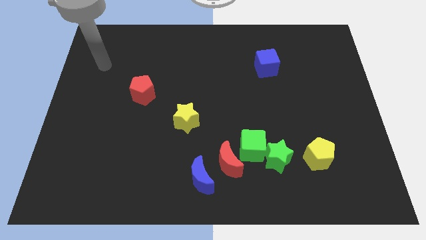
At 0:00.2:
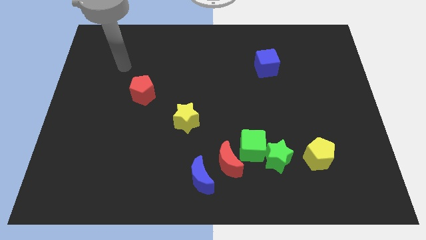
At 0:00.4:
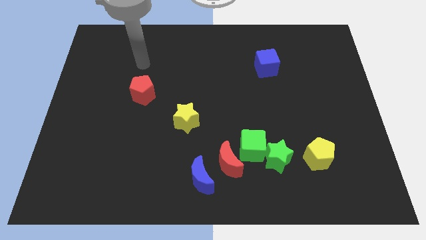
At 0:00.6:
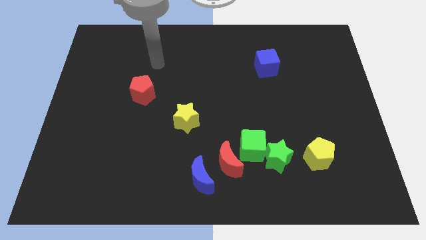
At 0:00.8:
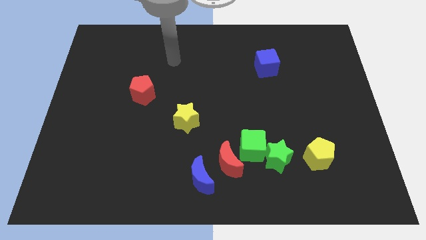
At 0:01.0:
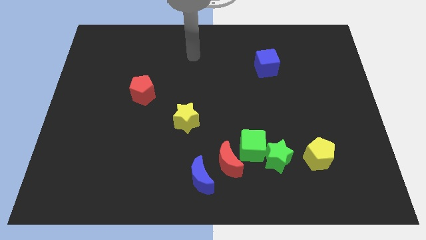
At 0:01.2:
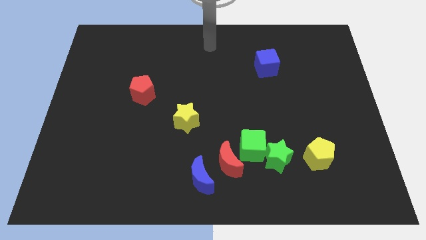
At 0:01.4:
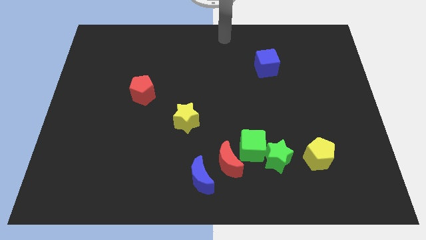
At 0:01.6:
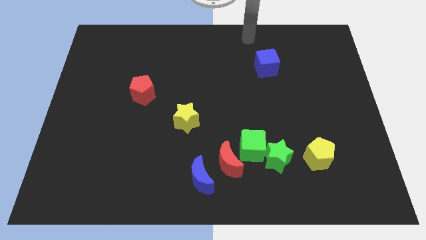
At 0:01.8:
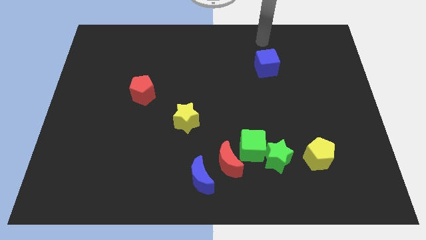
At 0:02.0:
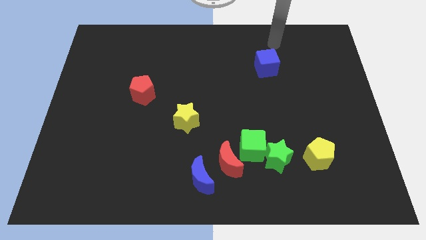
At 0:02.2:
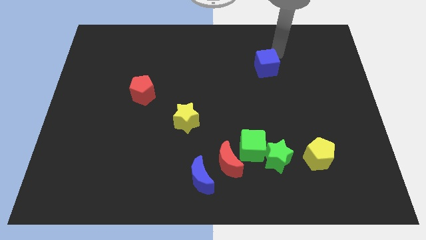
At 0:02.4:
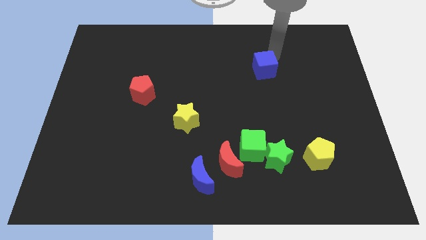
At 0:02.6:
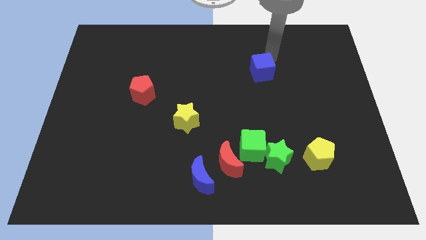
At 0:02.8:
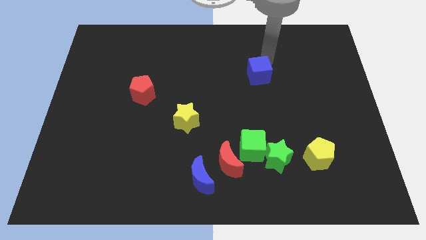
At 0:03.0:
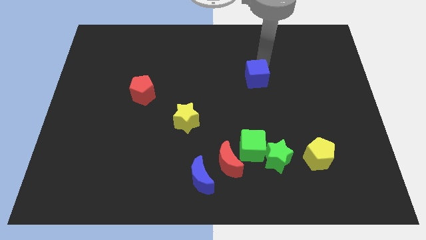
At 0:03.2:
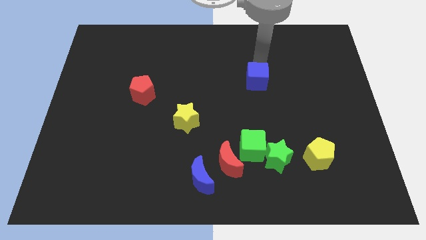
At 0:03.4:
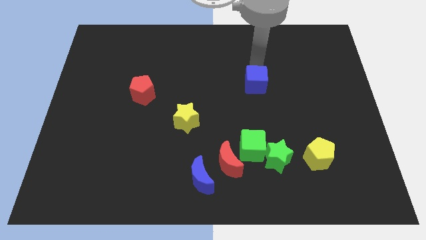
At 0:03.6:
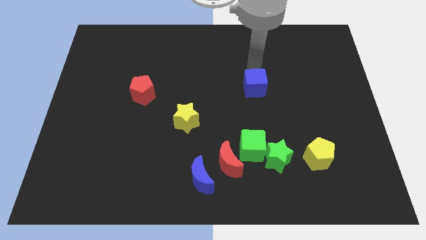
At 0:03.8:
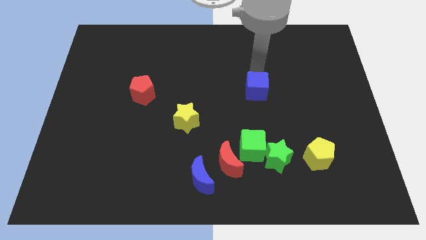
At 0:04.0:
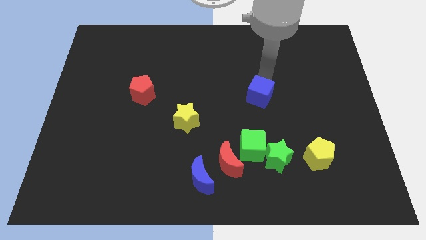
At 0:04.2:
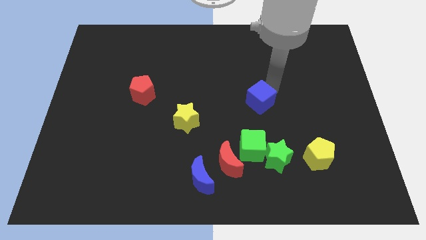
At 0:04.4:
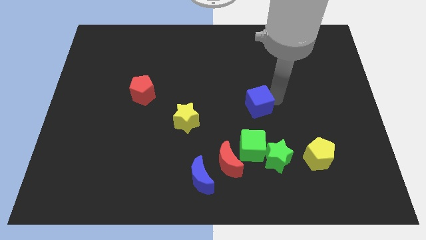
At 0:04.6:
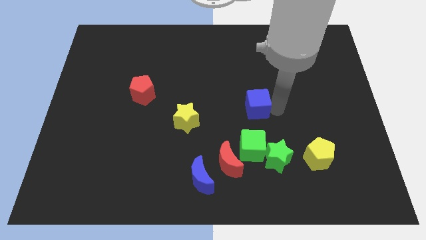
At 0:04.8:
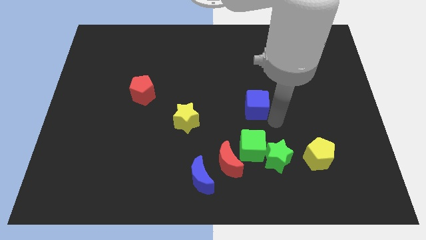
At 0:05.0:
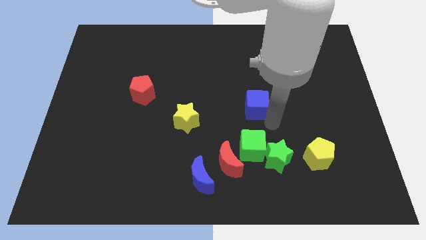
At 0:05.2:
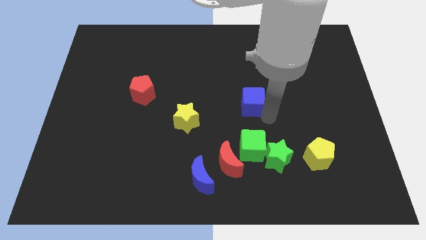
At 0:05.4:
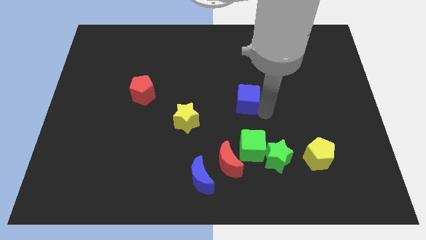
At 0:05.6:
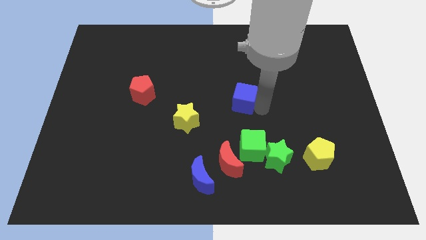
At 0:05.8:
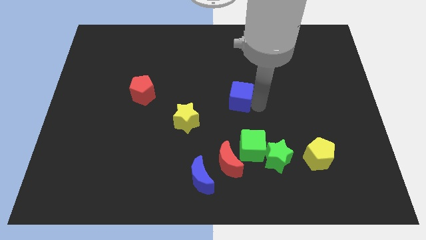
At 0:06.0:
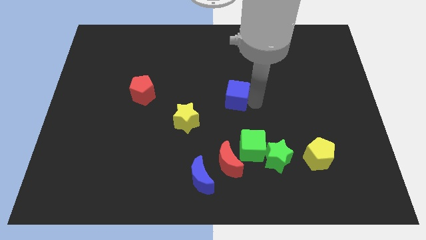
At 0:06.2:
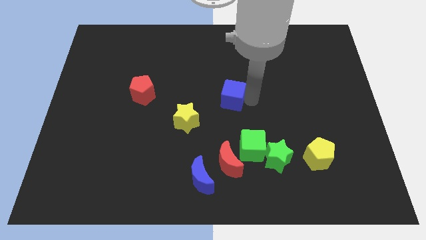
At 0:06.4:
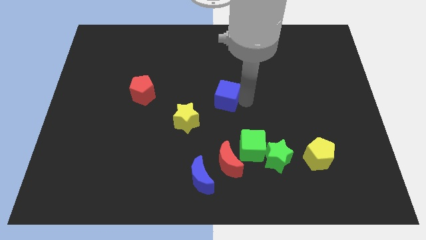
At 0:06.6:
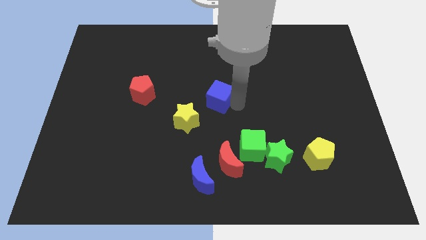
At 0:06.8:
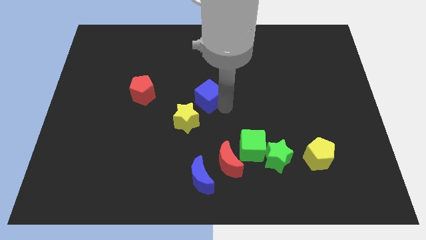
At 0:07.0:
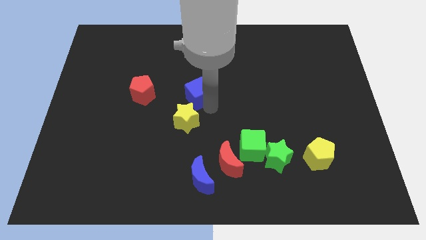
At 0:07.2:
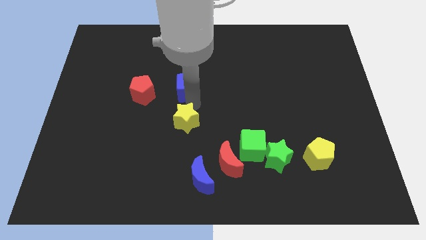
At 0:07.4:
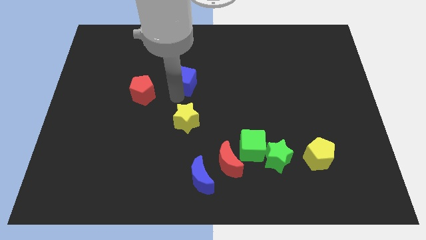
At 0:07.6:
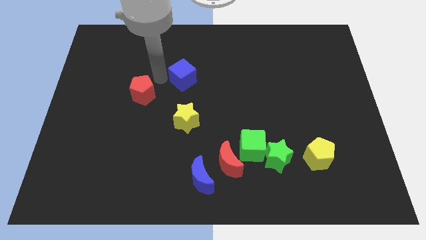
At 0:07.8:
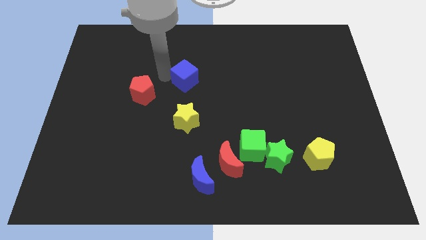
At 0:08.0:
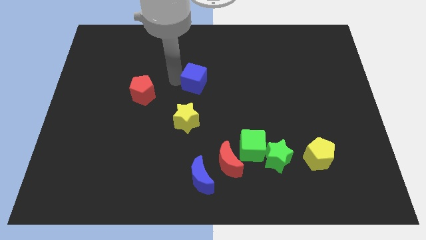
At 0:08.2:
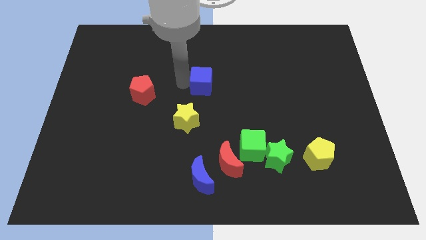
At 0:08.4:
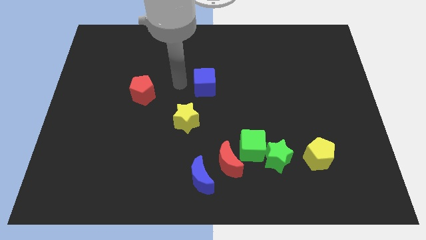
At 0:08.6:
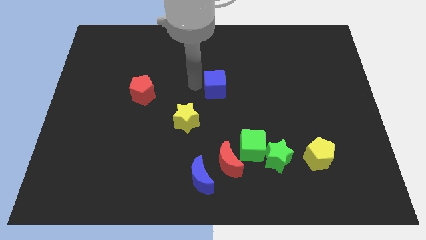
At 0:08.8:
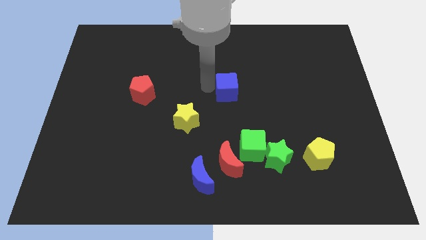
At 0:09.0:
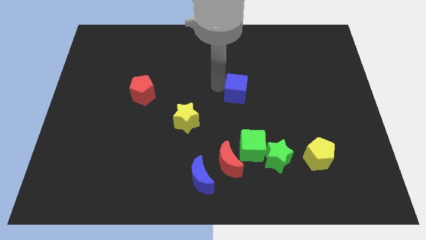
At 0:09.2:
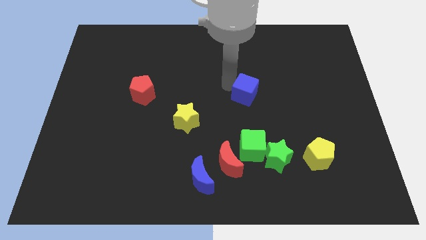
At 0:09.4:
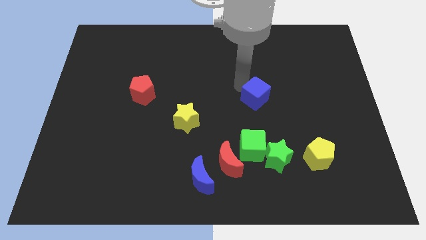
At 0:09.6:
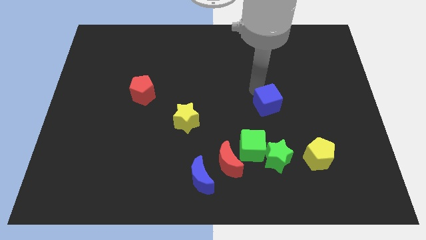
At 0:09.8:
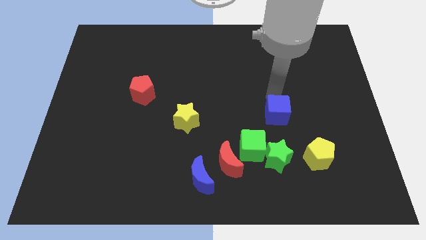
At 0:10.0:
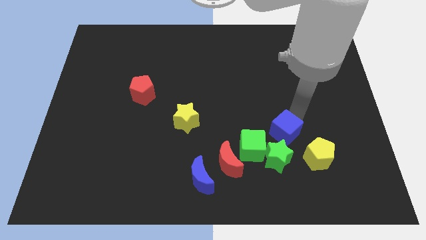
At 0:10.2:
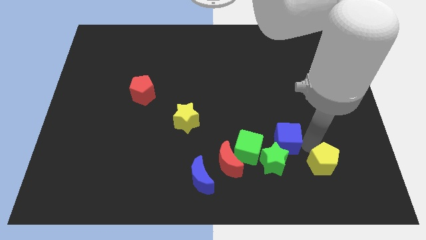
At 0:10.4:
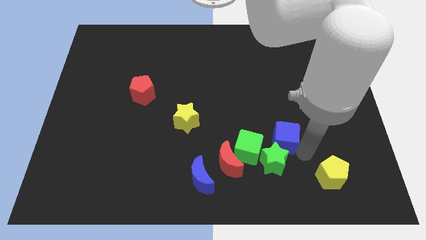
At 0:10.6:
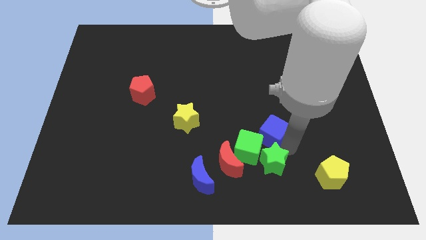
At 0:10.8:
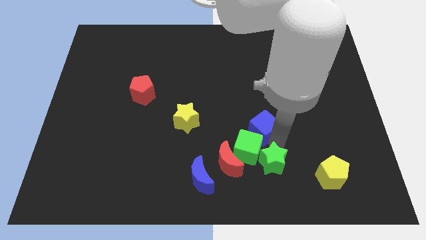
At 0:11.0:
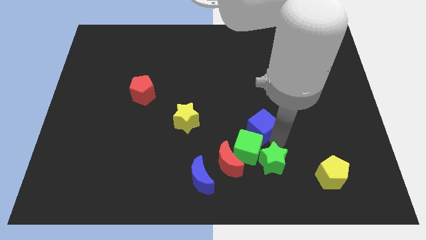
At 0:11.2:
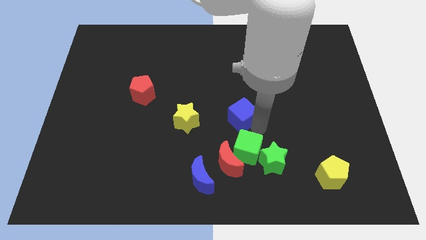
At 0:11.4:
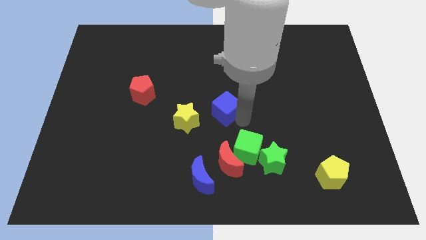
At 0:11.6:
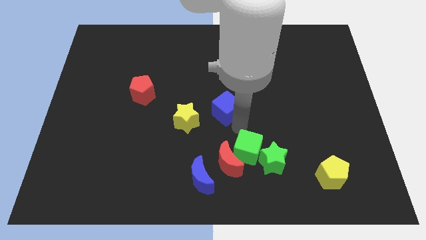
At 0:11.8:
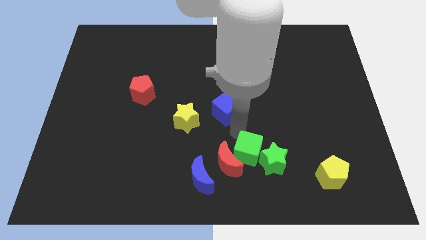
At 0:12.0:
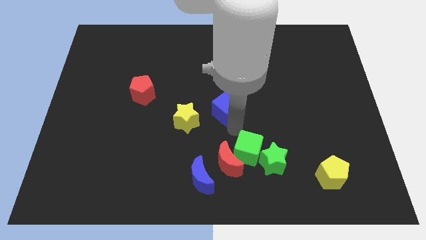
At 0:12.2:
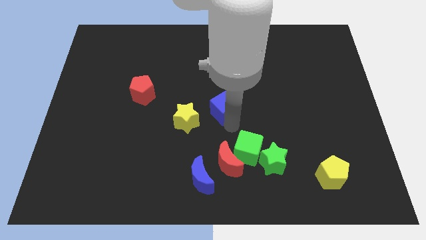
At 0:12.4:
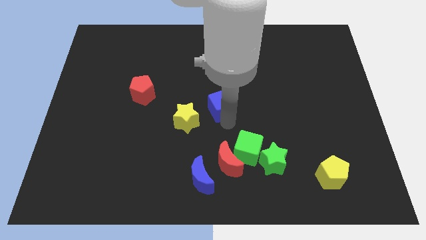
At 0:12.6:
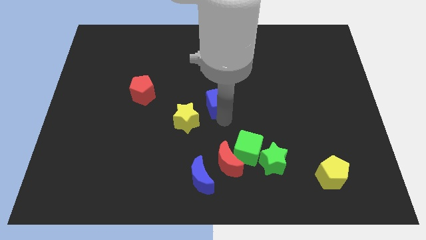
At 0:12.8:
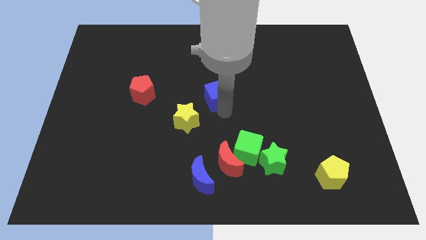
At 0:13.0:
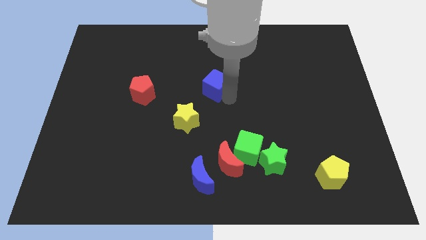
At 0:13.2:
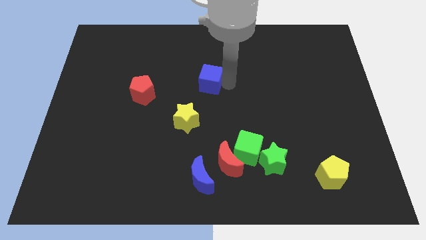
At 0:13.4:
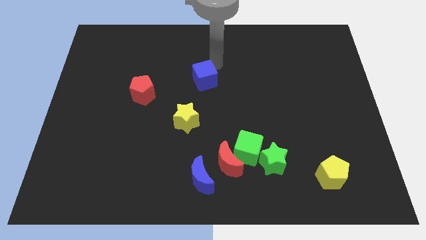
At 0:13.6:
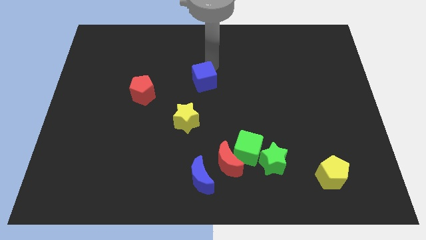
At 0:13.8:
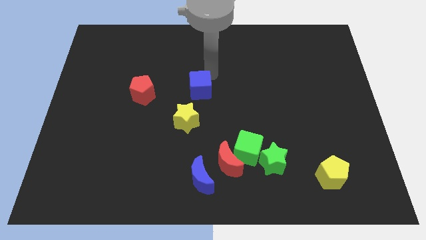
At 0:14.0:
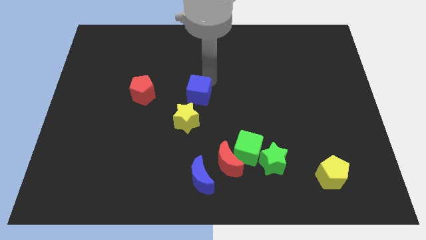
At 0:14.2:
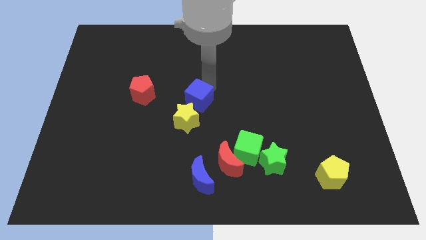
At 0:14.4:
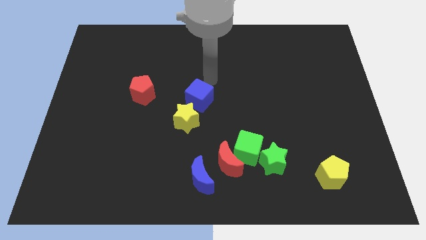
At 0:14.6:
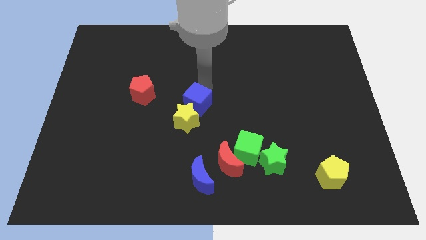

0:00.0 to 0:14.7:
slide the blue cube close to the yellow star

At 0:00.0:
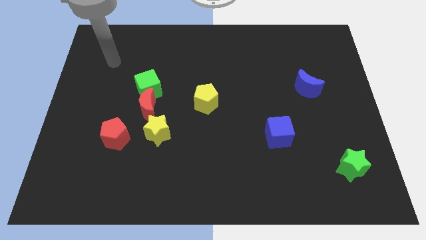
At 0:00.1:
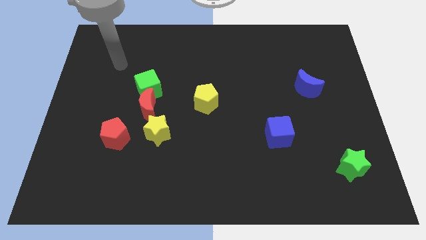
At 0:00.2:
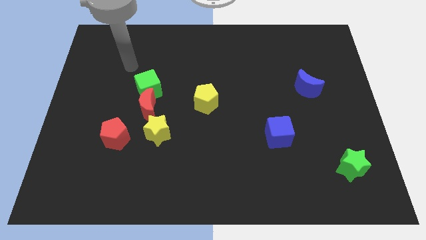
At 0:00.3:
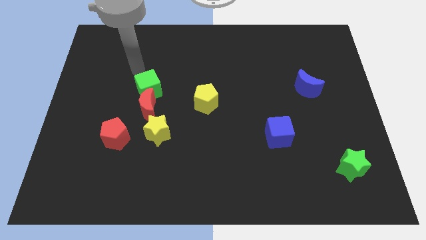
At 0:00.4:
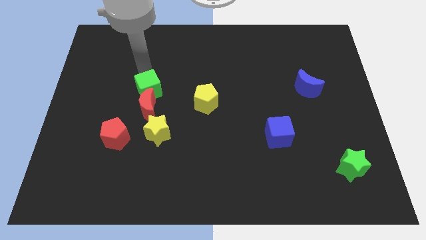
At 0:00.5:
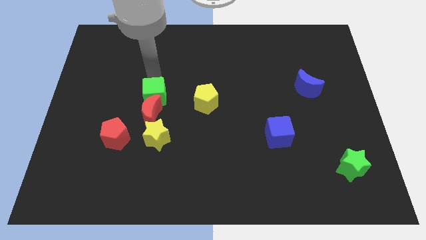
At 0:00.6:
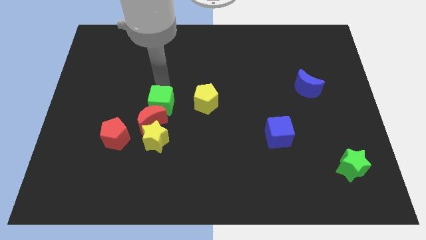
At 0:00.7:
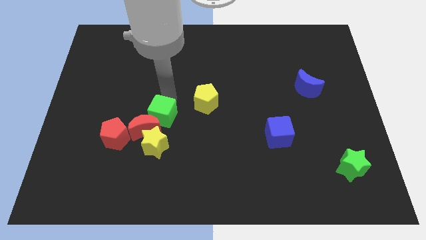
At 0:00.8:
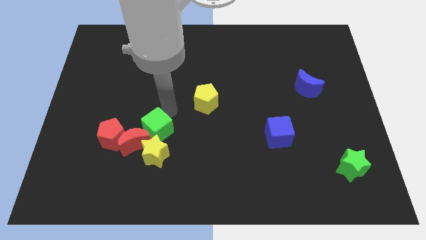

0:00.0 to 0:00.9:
put the red moon close to the red pentagon

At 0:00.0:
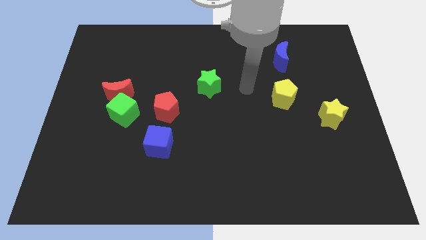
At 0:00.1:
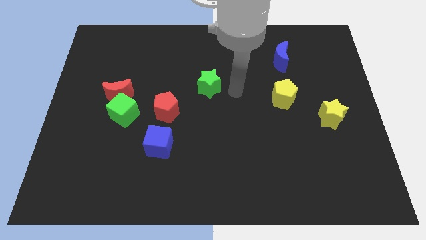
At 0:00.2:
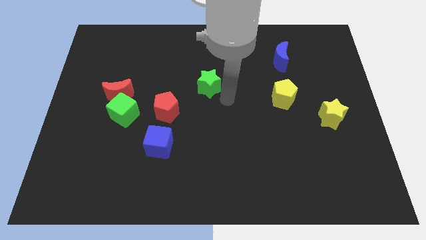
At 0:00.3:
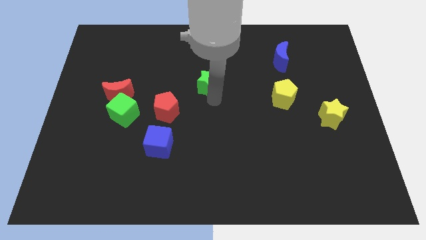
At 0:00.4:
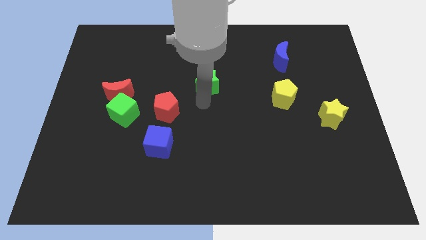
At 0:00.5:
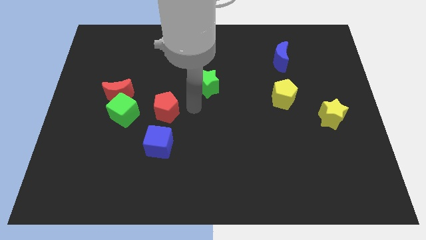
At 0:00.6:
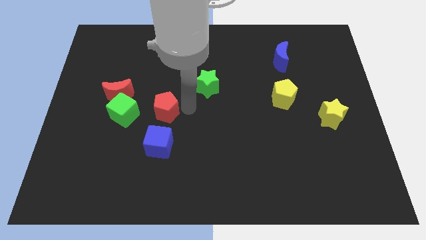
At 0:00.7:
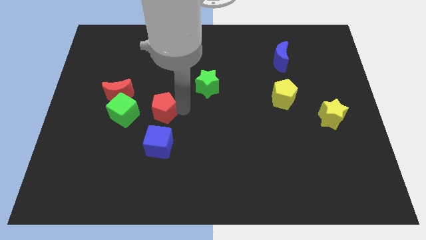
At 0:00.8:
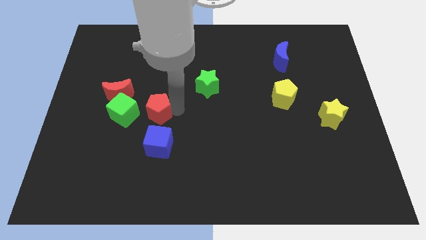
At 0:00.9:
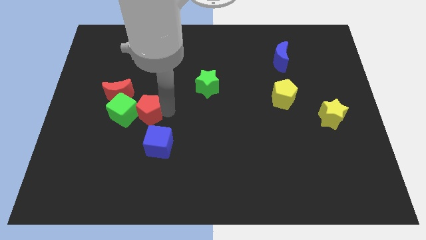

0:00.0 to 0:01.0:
slide the red pentagon close to the green cube
